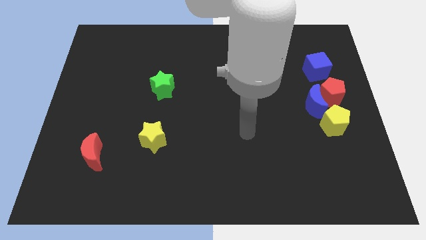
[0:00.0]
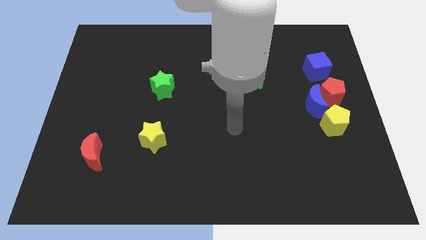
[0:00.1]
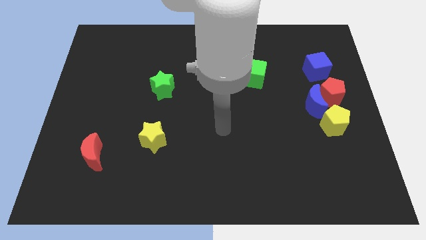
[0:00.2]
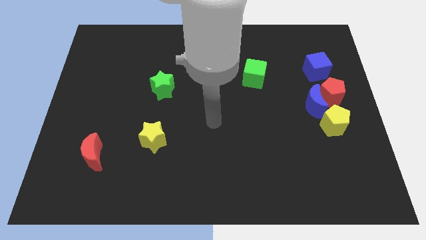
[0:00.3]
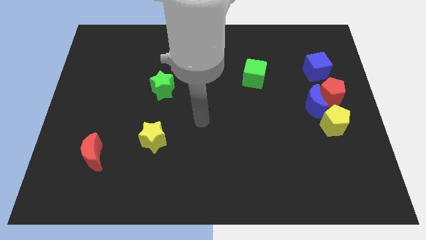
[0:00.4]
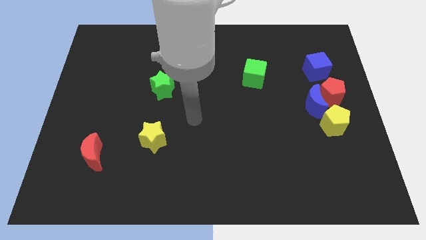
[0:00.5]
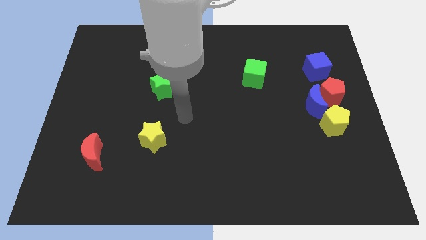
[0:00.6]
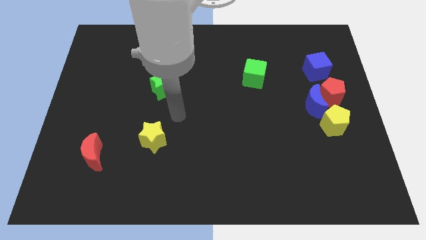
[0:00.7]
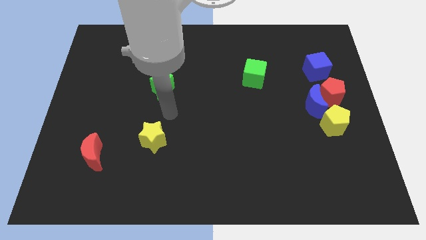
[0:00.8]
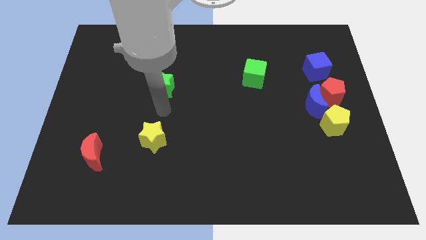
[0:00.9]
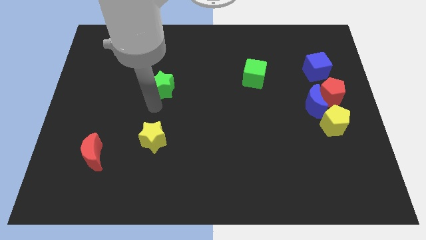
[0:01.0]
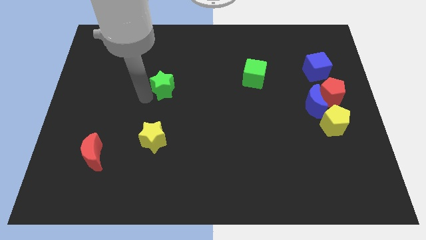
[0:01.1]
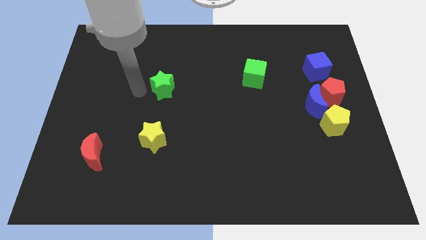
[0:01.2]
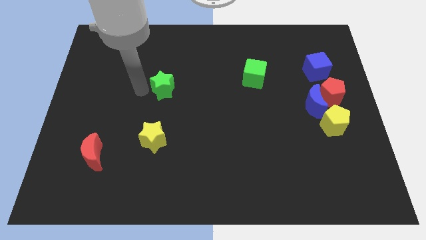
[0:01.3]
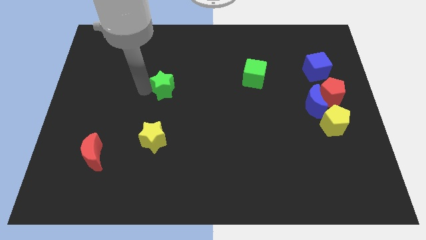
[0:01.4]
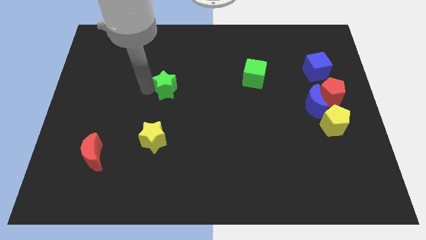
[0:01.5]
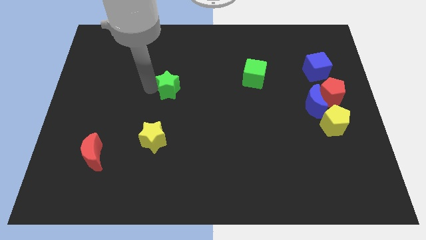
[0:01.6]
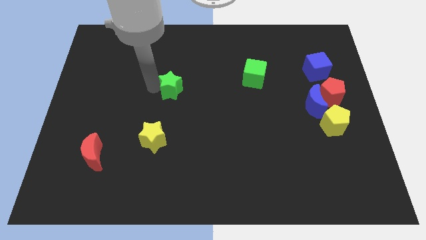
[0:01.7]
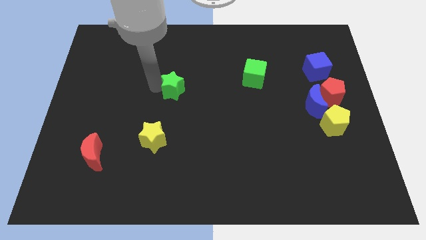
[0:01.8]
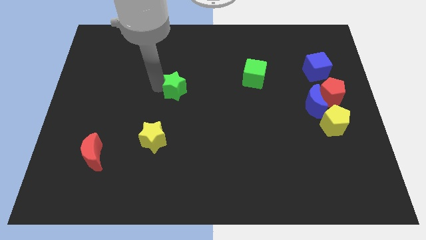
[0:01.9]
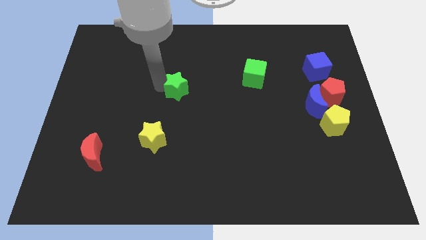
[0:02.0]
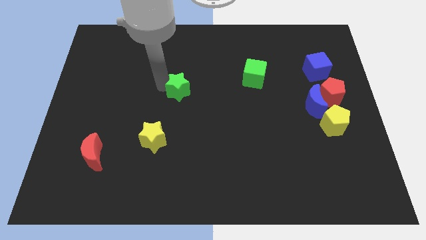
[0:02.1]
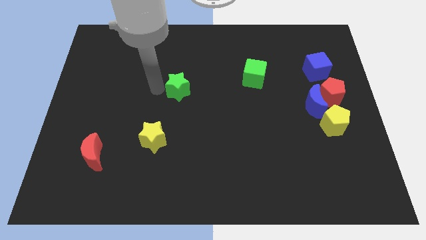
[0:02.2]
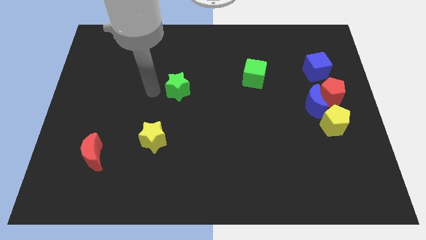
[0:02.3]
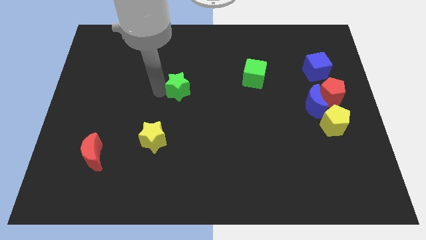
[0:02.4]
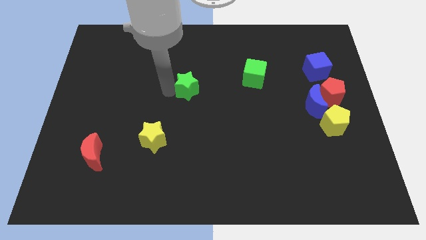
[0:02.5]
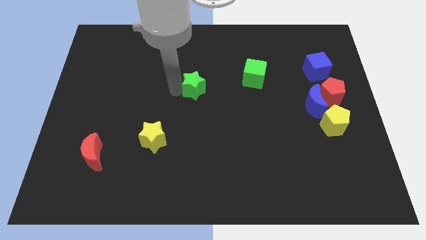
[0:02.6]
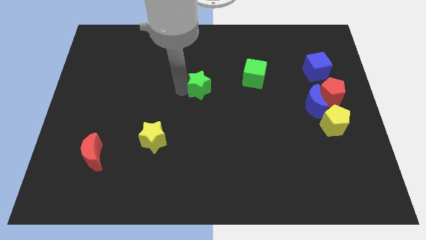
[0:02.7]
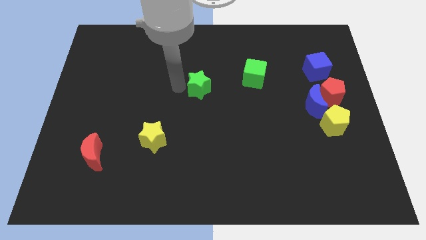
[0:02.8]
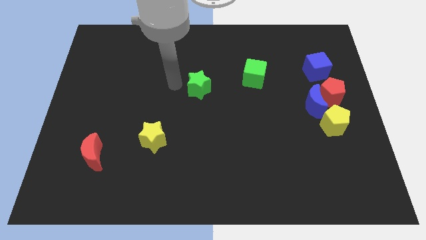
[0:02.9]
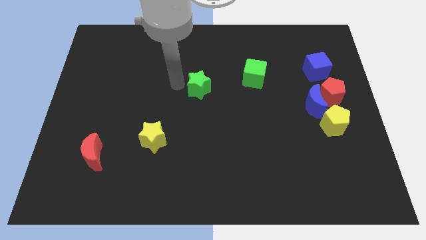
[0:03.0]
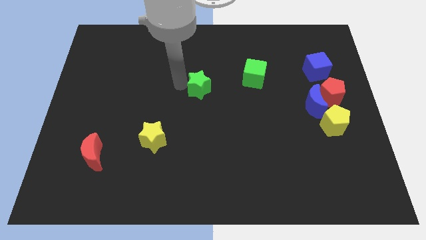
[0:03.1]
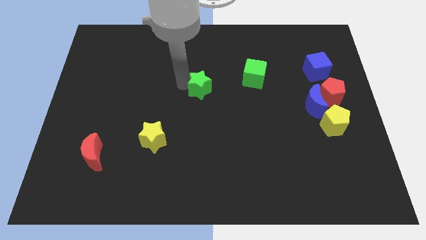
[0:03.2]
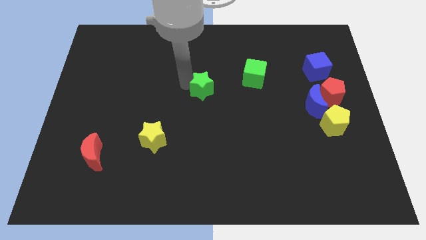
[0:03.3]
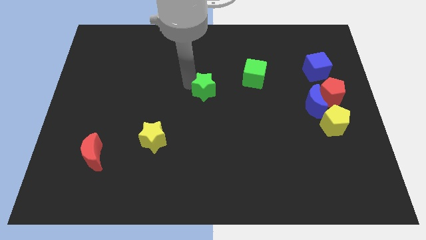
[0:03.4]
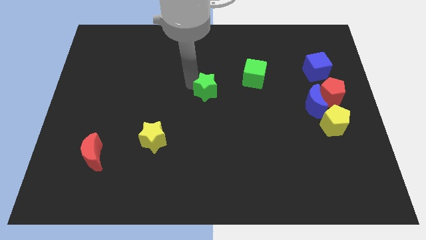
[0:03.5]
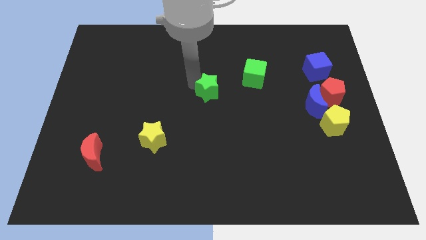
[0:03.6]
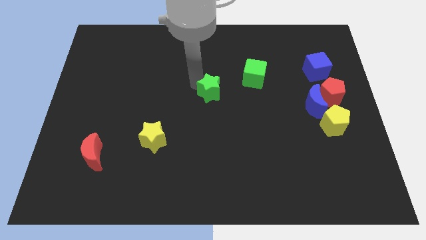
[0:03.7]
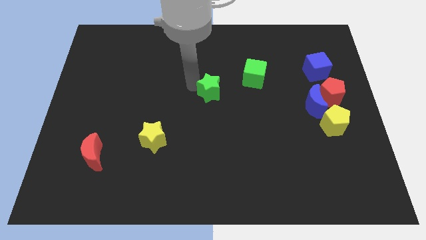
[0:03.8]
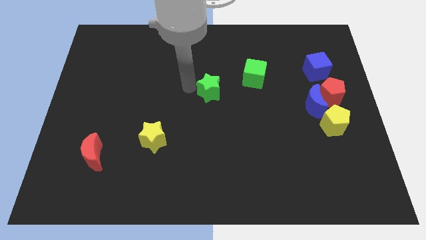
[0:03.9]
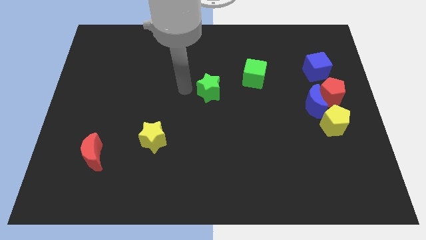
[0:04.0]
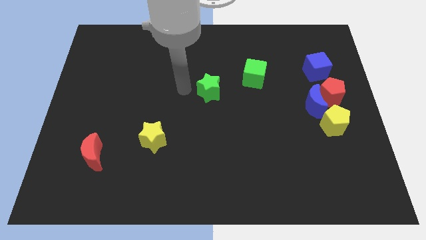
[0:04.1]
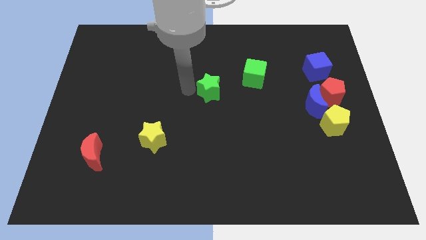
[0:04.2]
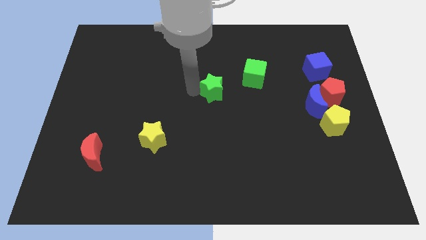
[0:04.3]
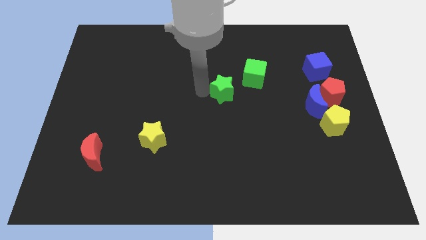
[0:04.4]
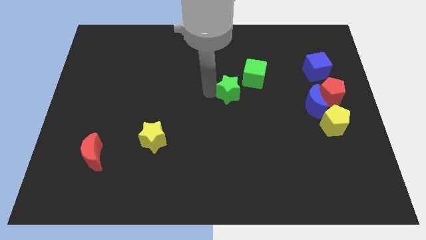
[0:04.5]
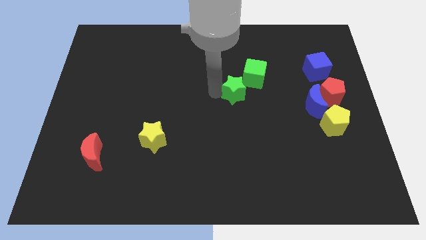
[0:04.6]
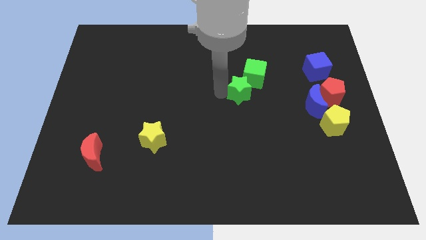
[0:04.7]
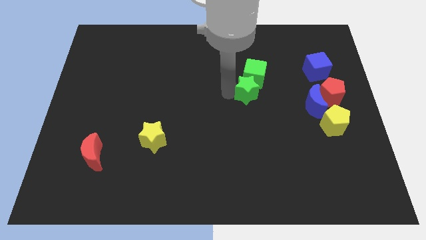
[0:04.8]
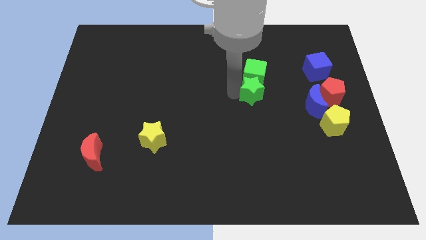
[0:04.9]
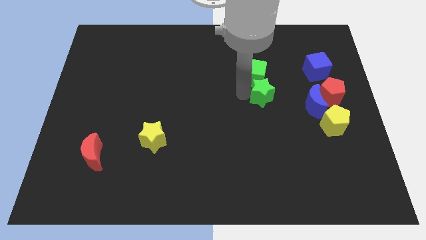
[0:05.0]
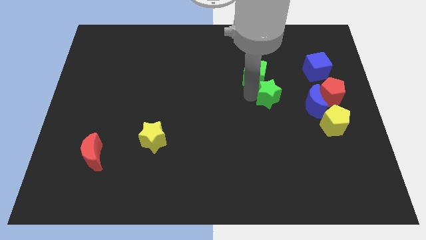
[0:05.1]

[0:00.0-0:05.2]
slide the green star to the left of the red pentagon

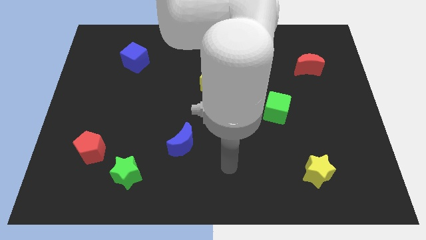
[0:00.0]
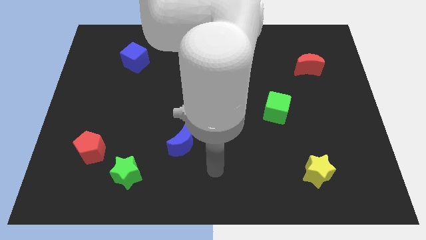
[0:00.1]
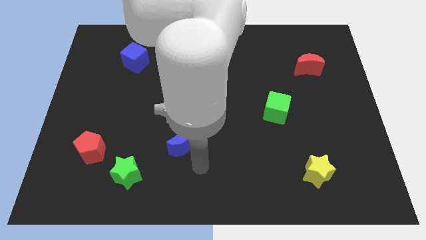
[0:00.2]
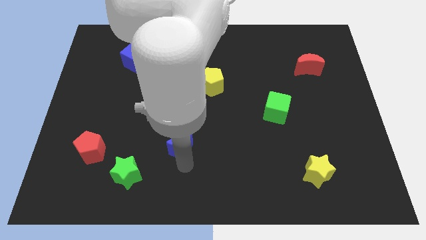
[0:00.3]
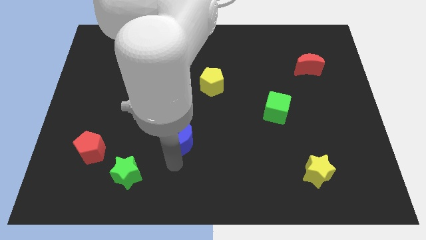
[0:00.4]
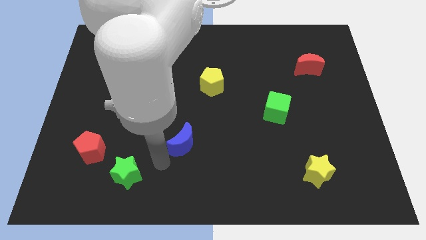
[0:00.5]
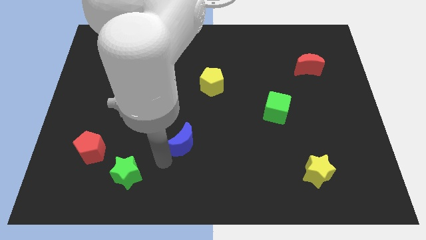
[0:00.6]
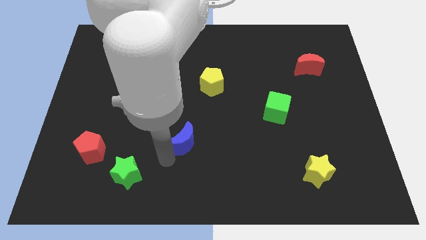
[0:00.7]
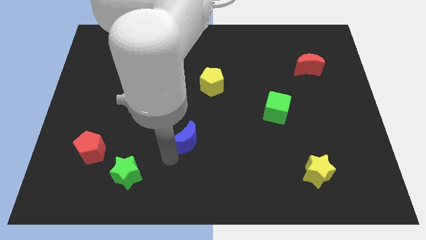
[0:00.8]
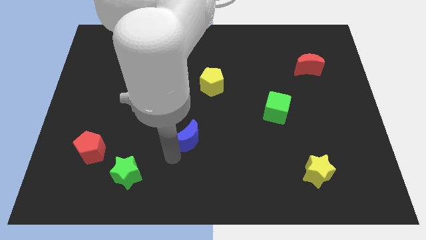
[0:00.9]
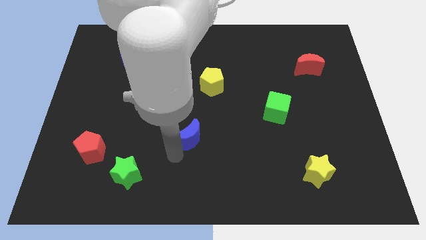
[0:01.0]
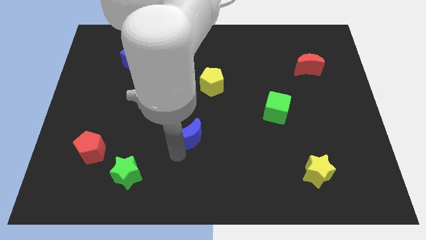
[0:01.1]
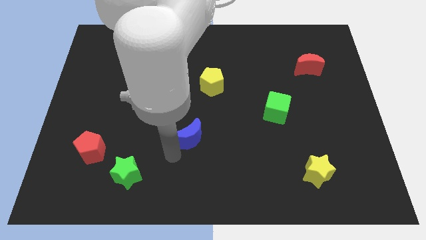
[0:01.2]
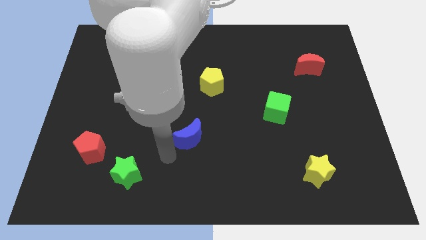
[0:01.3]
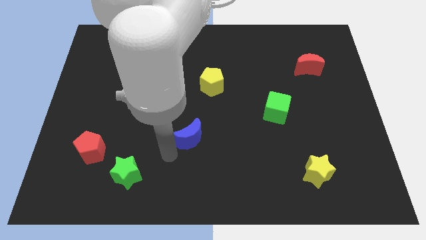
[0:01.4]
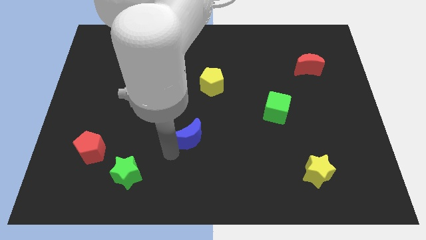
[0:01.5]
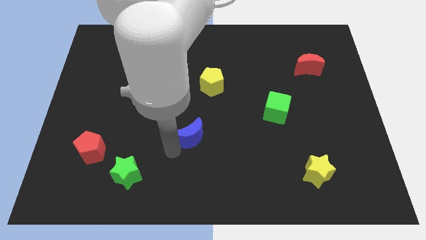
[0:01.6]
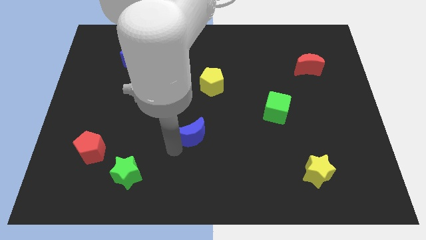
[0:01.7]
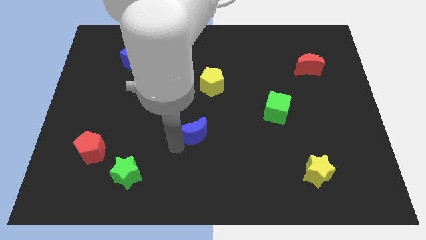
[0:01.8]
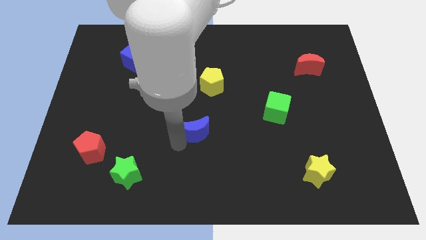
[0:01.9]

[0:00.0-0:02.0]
slide the blue moon below the yellow pentagon
